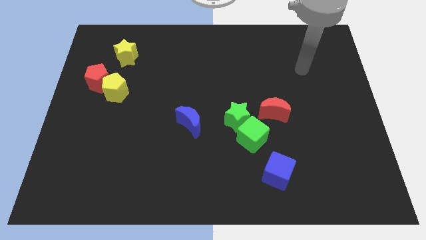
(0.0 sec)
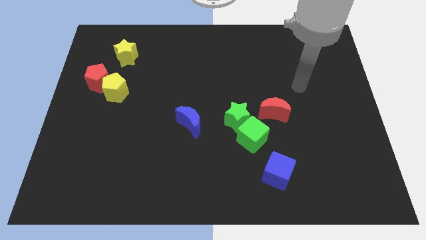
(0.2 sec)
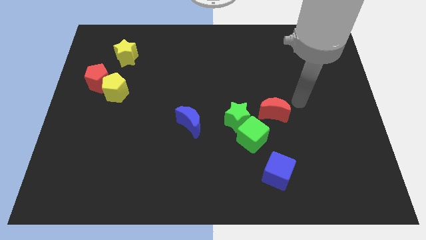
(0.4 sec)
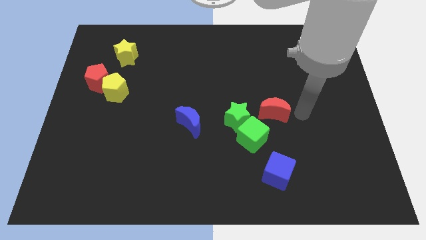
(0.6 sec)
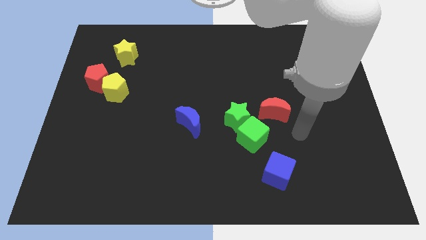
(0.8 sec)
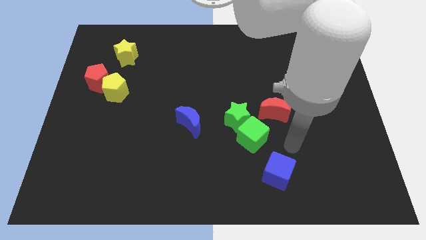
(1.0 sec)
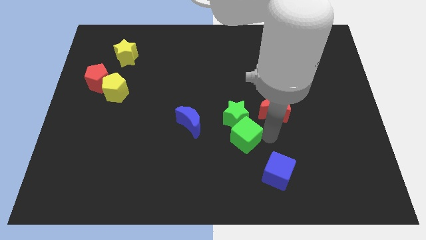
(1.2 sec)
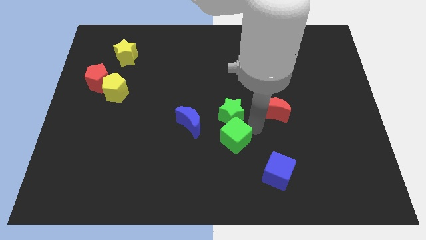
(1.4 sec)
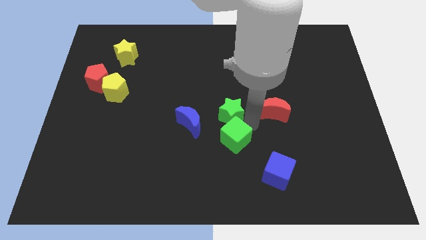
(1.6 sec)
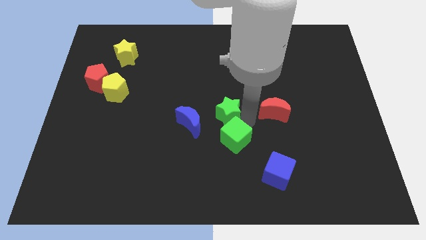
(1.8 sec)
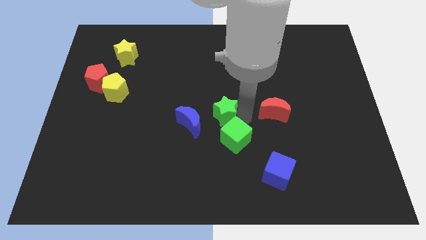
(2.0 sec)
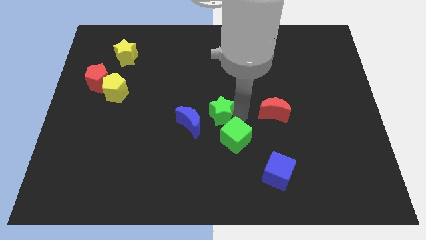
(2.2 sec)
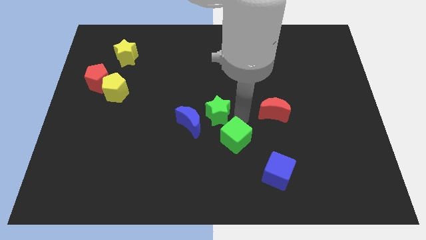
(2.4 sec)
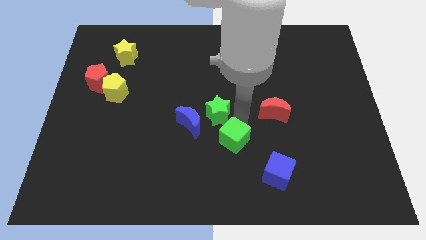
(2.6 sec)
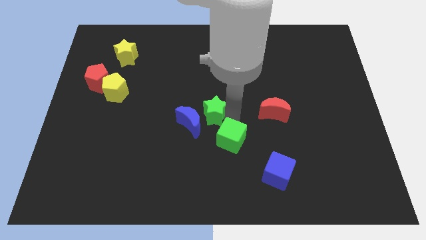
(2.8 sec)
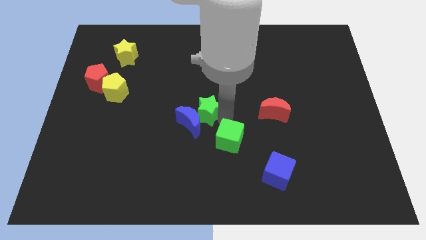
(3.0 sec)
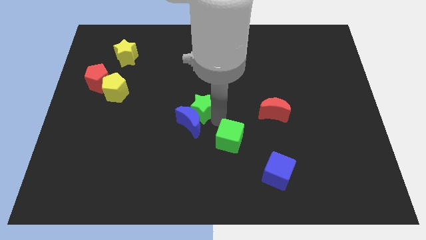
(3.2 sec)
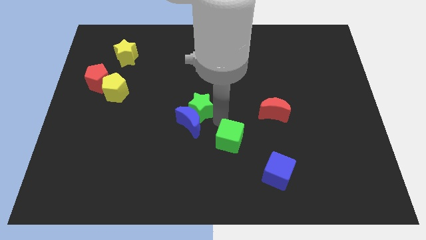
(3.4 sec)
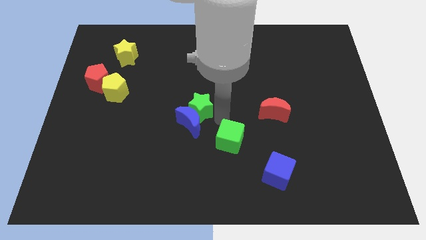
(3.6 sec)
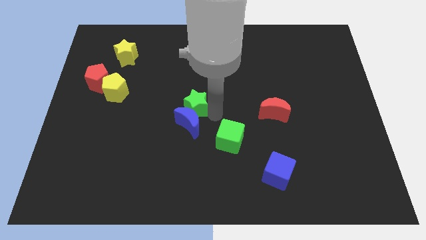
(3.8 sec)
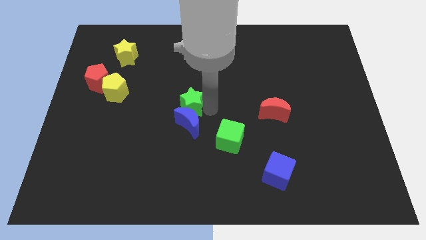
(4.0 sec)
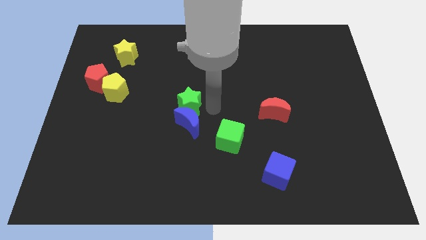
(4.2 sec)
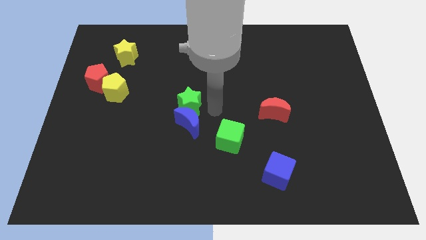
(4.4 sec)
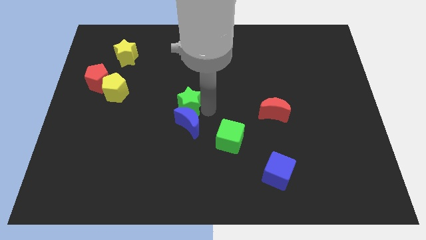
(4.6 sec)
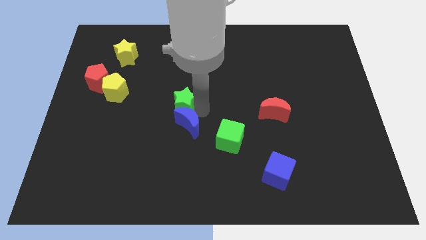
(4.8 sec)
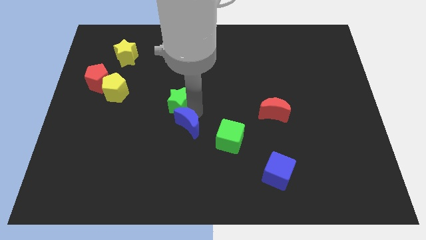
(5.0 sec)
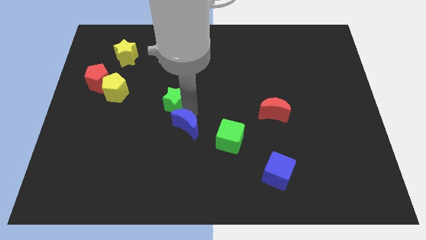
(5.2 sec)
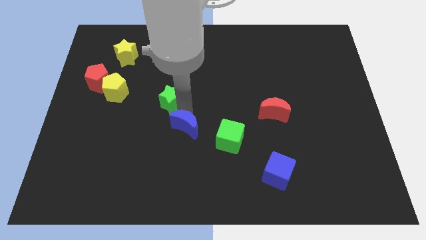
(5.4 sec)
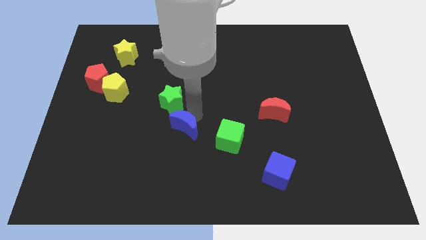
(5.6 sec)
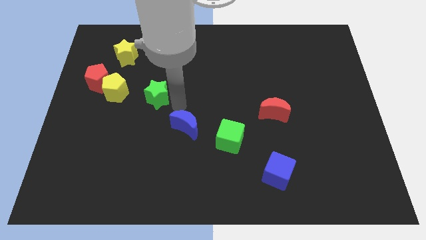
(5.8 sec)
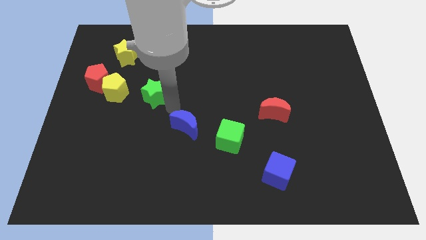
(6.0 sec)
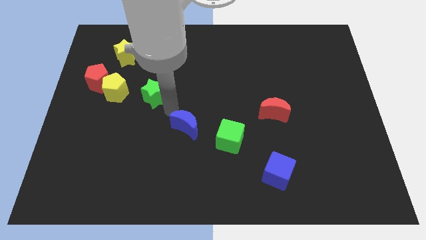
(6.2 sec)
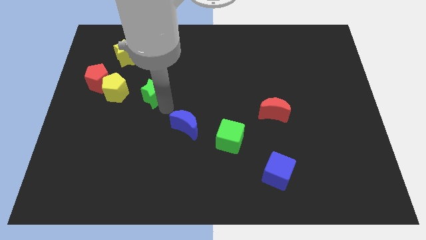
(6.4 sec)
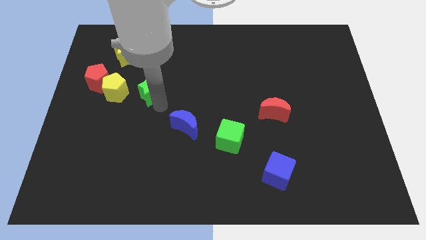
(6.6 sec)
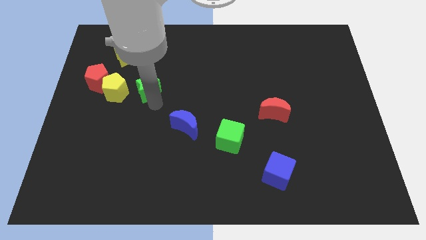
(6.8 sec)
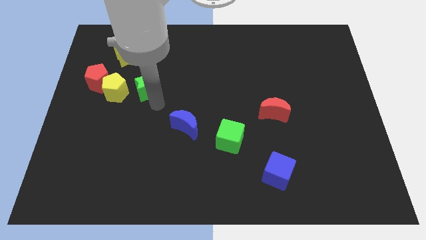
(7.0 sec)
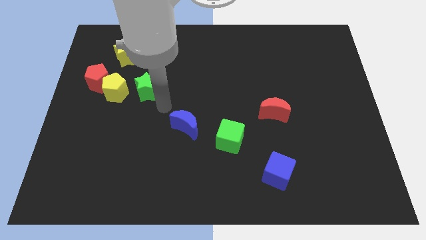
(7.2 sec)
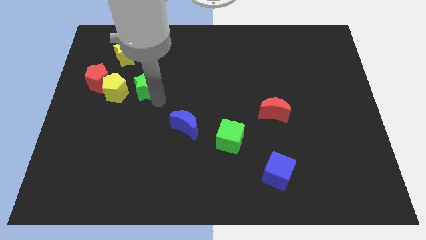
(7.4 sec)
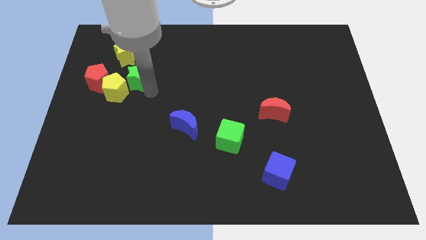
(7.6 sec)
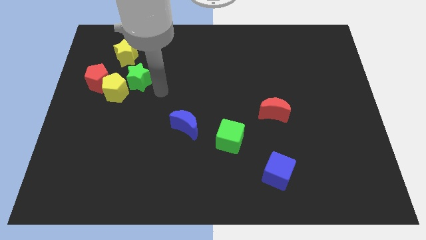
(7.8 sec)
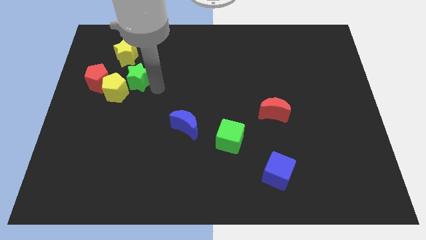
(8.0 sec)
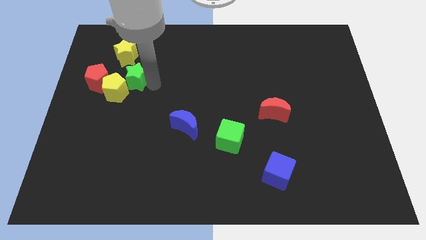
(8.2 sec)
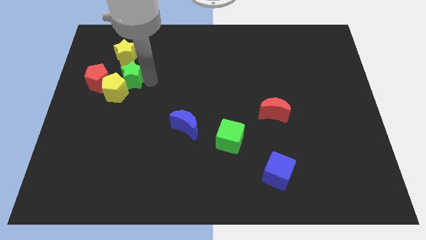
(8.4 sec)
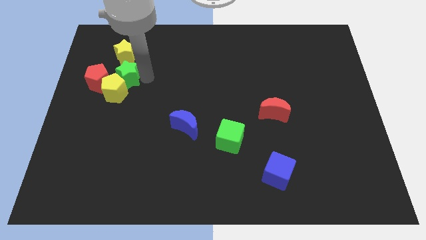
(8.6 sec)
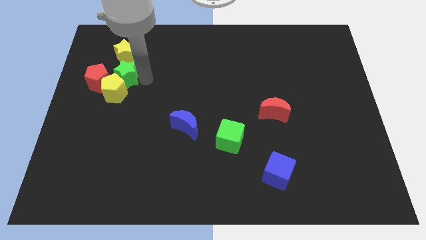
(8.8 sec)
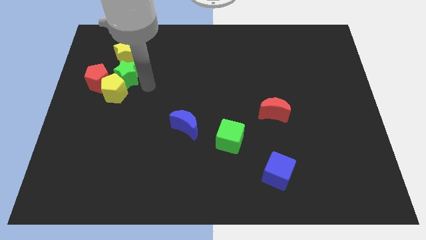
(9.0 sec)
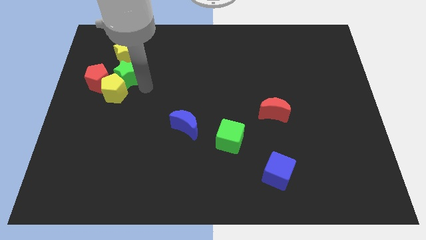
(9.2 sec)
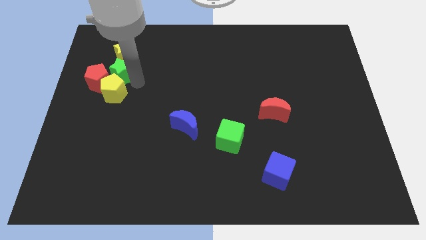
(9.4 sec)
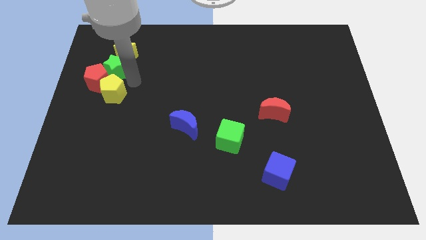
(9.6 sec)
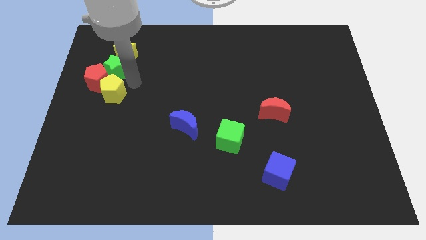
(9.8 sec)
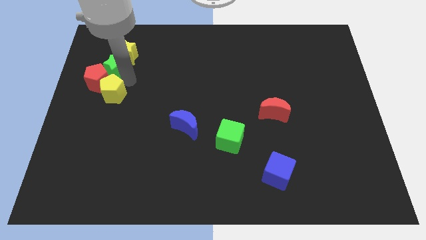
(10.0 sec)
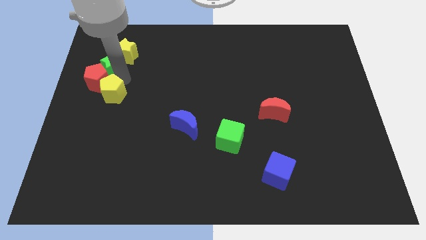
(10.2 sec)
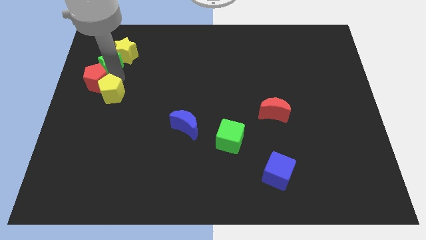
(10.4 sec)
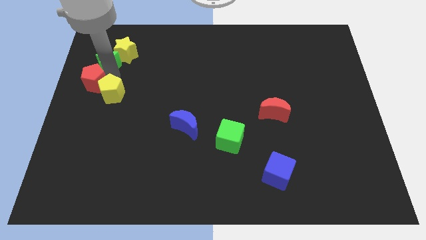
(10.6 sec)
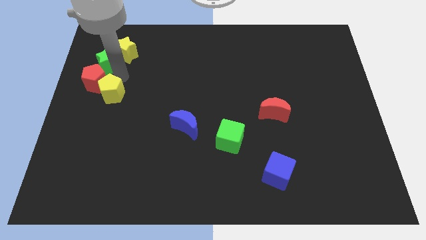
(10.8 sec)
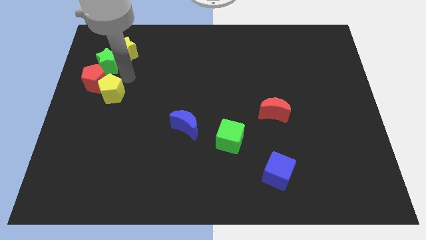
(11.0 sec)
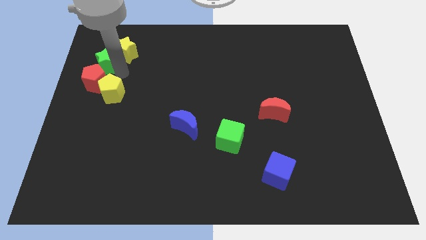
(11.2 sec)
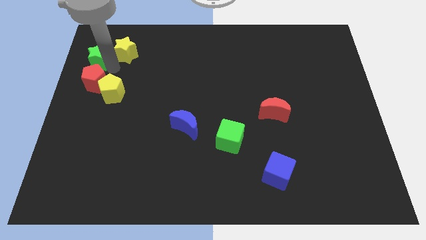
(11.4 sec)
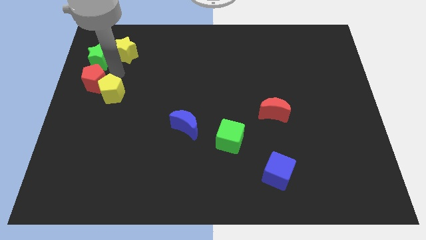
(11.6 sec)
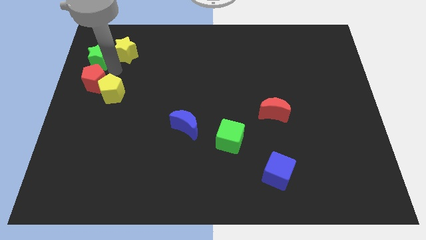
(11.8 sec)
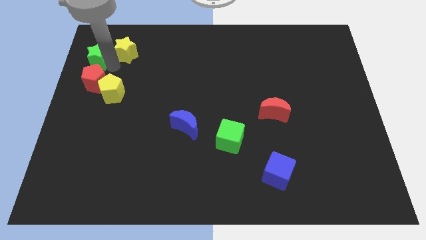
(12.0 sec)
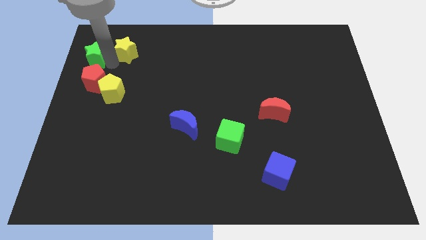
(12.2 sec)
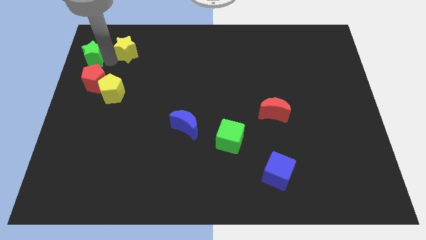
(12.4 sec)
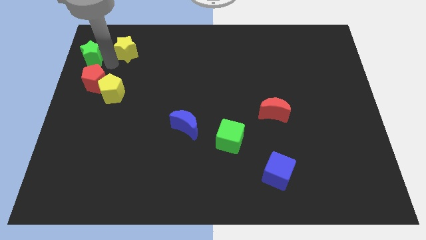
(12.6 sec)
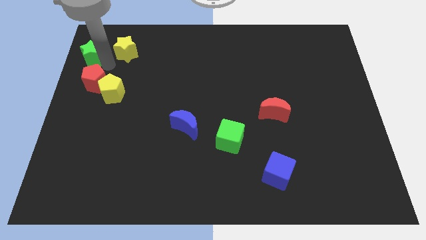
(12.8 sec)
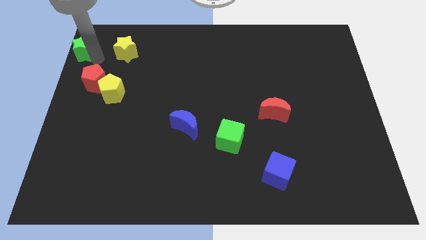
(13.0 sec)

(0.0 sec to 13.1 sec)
move the green star to the top left of the board

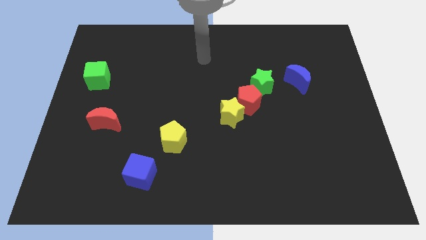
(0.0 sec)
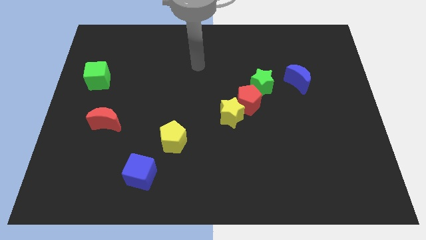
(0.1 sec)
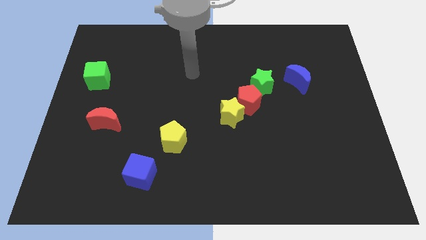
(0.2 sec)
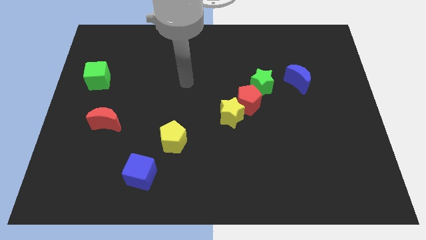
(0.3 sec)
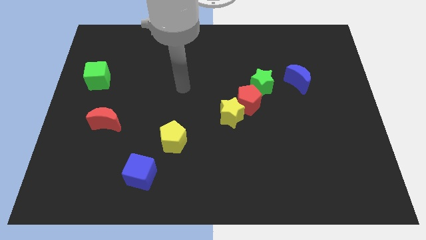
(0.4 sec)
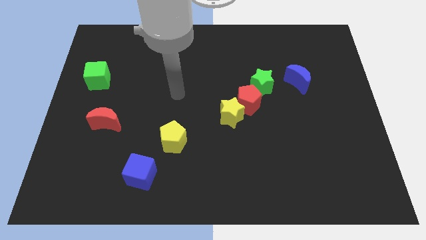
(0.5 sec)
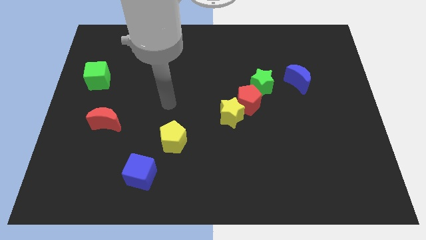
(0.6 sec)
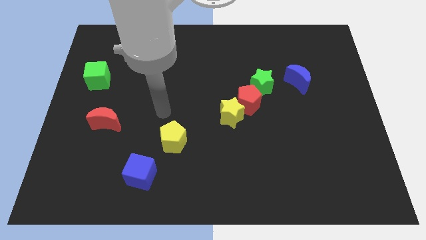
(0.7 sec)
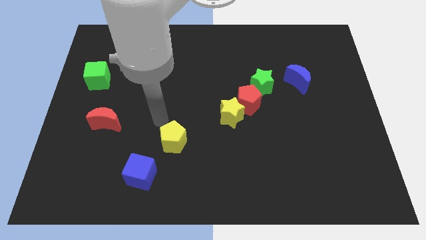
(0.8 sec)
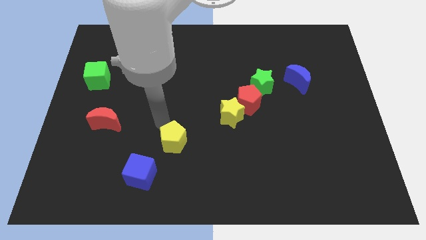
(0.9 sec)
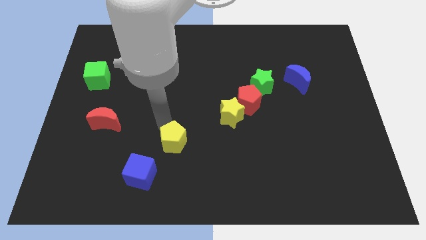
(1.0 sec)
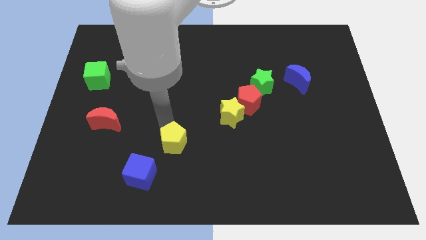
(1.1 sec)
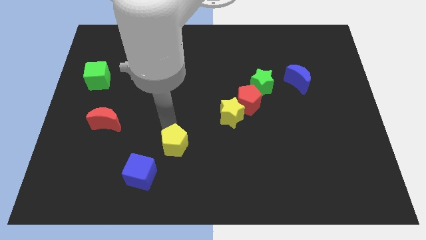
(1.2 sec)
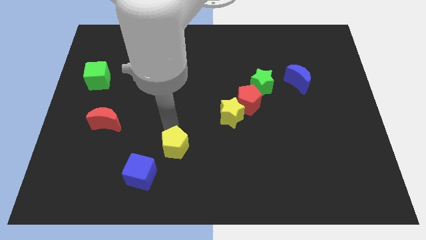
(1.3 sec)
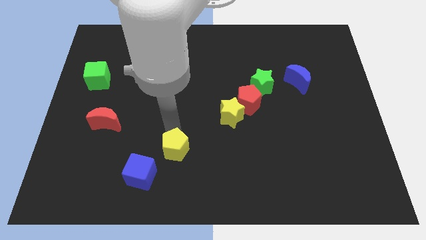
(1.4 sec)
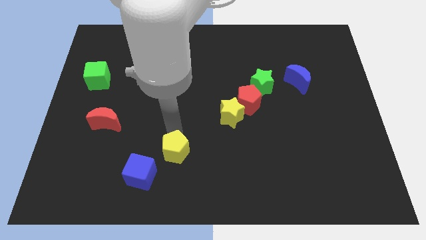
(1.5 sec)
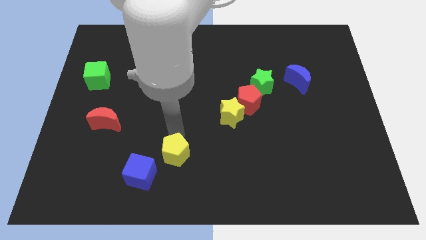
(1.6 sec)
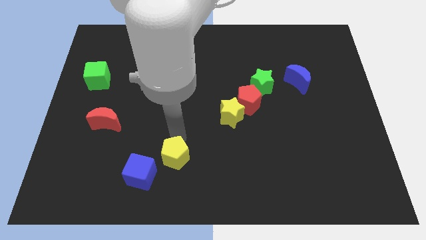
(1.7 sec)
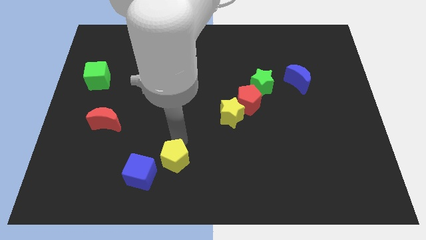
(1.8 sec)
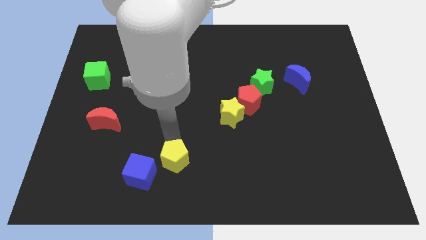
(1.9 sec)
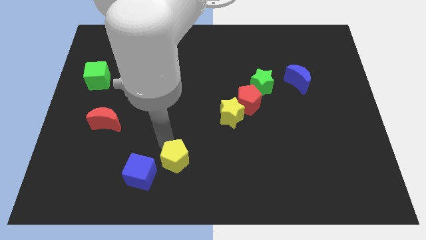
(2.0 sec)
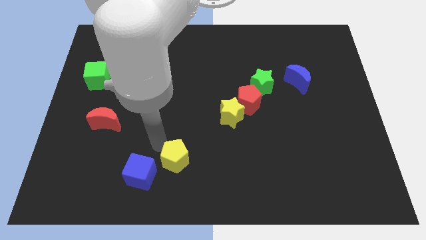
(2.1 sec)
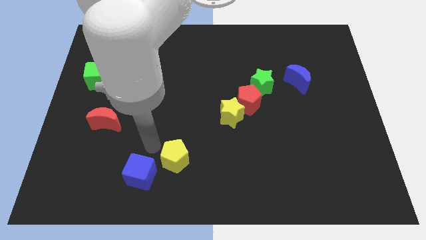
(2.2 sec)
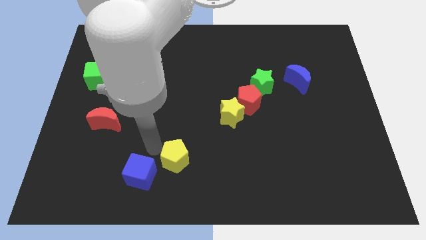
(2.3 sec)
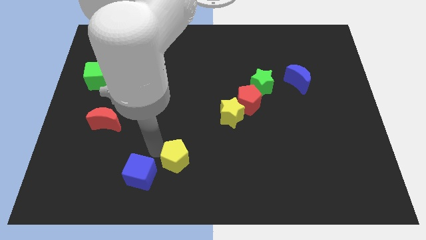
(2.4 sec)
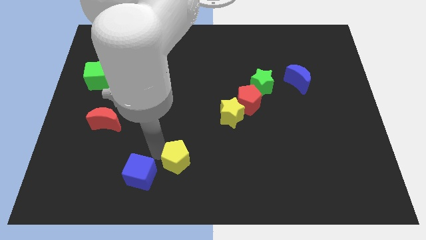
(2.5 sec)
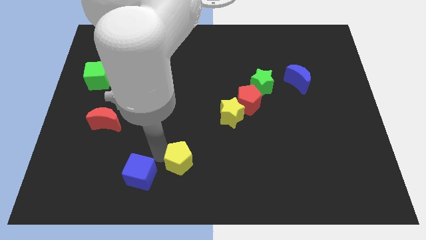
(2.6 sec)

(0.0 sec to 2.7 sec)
put the yellow pentagon to the bottom
